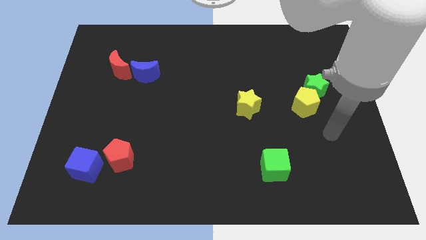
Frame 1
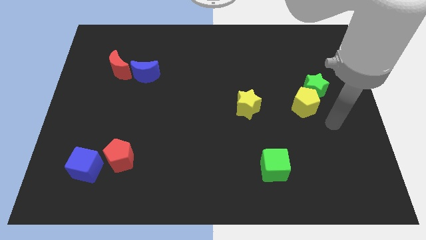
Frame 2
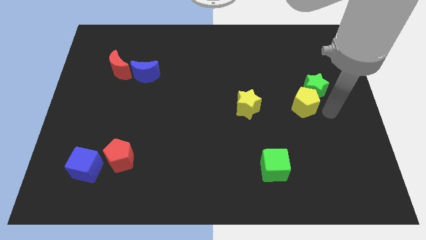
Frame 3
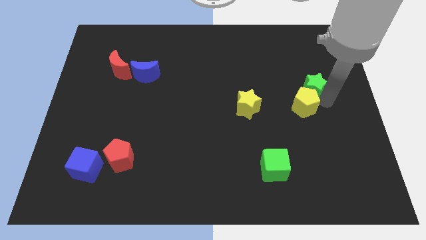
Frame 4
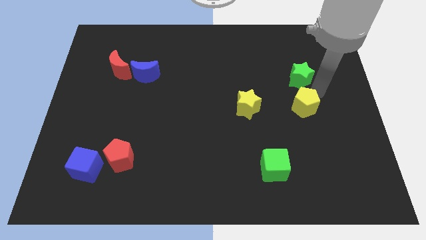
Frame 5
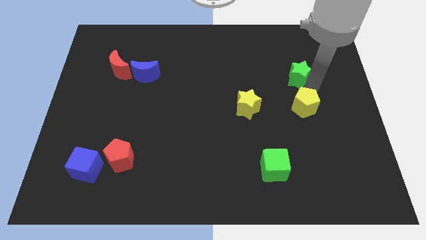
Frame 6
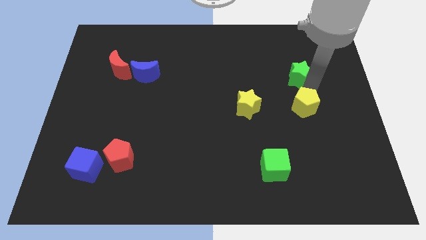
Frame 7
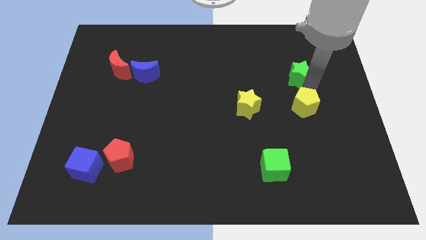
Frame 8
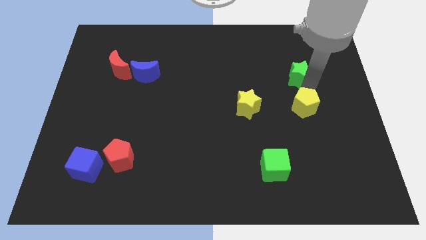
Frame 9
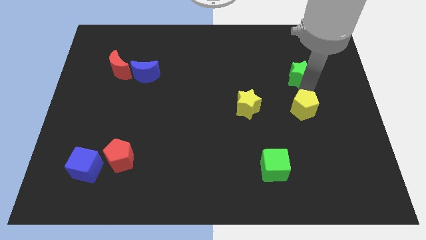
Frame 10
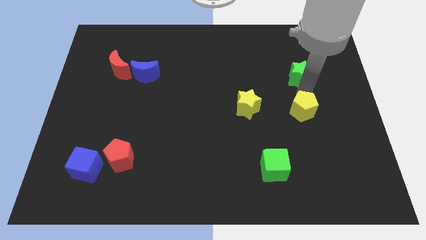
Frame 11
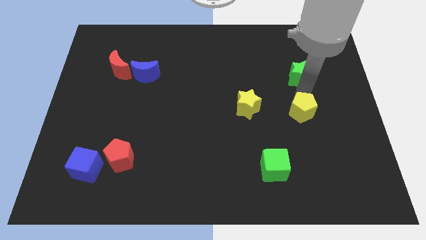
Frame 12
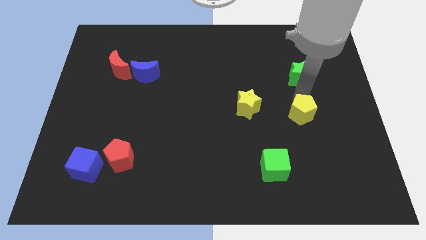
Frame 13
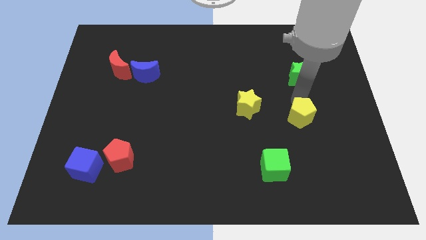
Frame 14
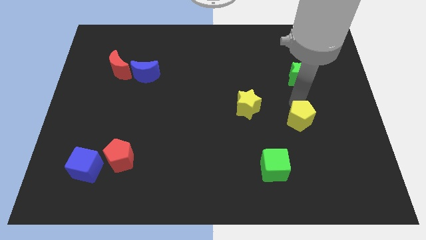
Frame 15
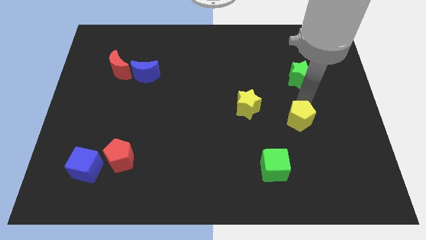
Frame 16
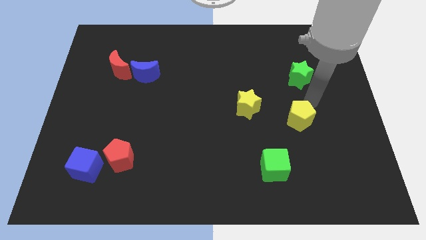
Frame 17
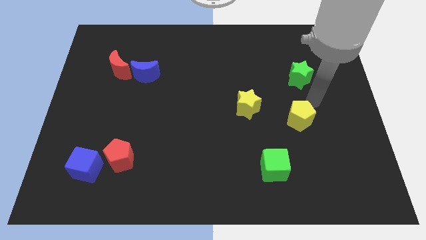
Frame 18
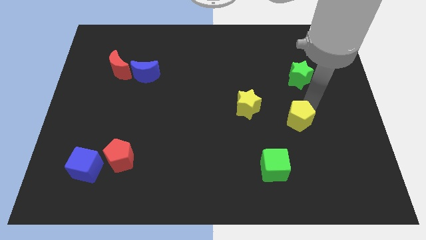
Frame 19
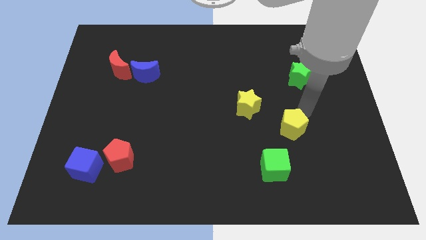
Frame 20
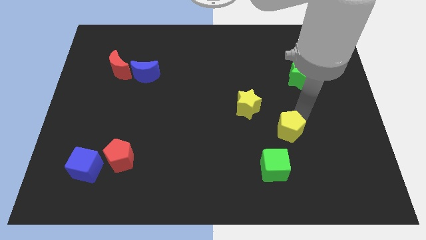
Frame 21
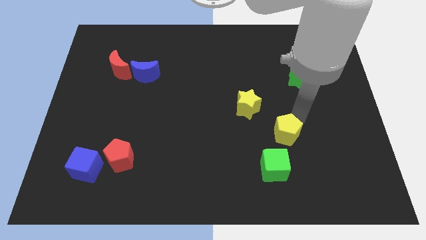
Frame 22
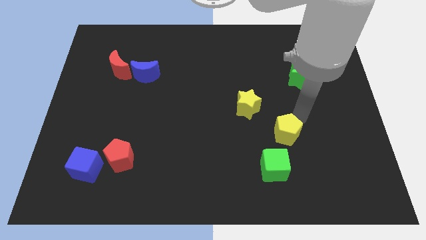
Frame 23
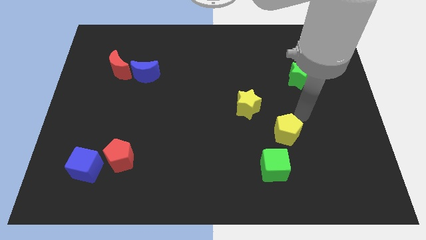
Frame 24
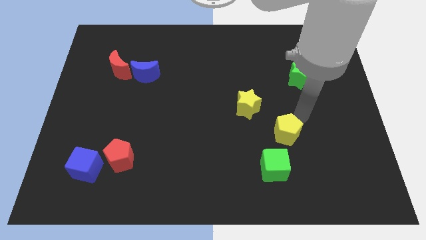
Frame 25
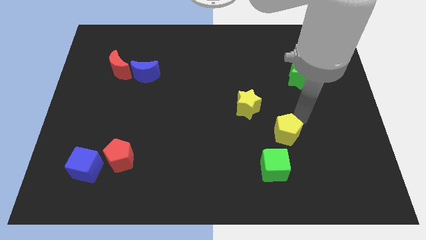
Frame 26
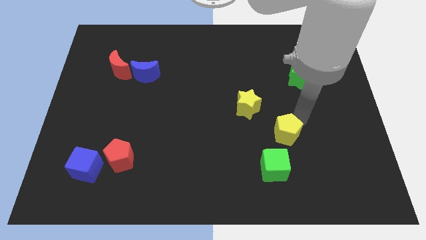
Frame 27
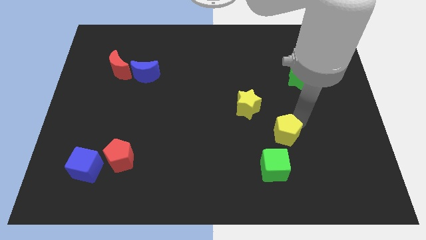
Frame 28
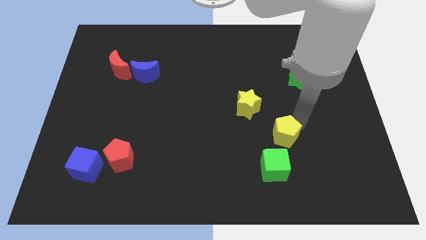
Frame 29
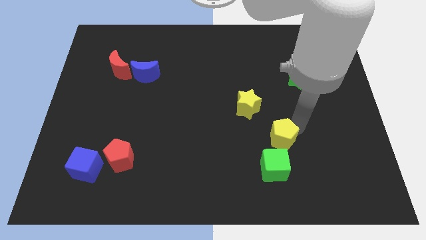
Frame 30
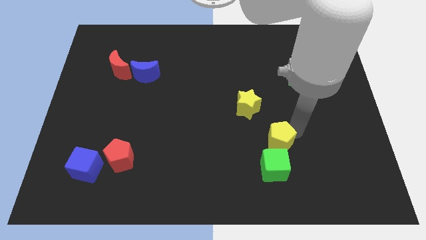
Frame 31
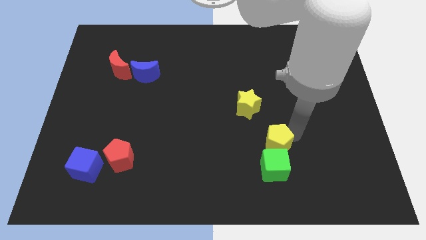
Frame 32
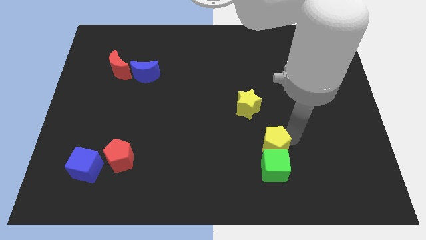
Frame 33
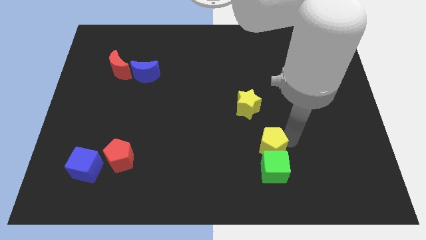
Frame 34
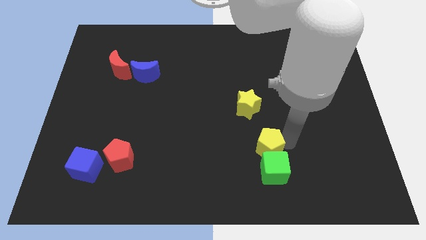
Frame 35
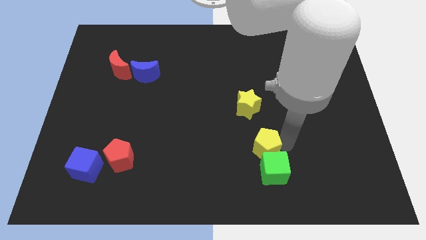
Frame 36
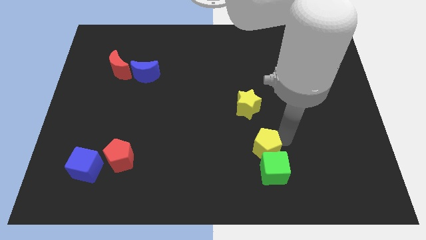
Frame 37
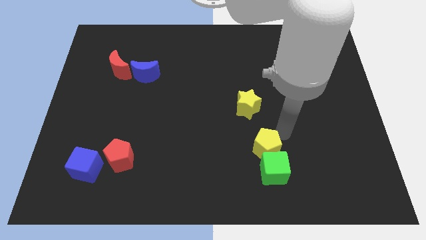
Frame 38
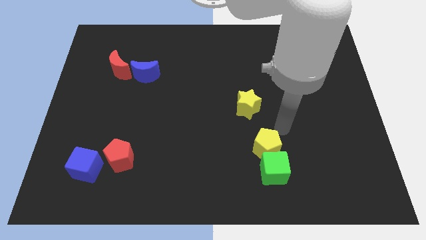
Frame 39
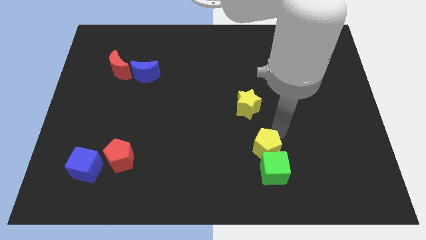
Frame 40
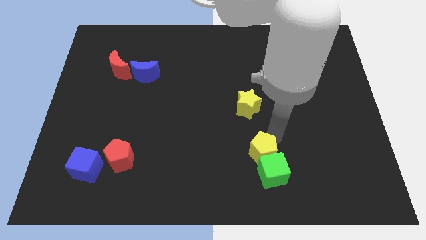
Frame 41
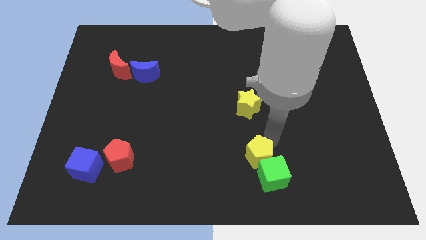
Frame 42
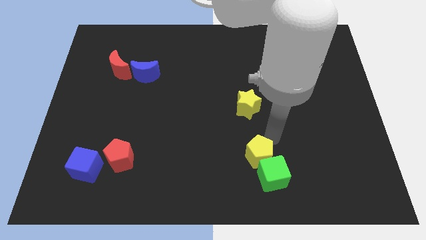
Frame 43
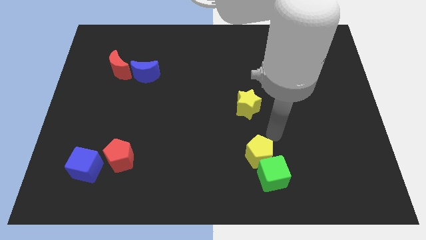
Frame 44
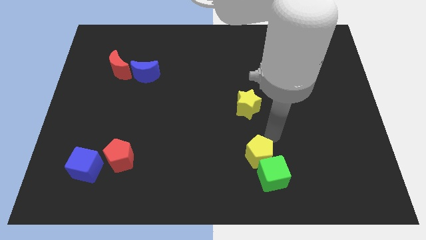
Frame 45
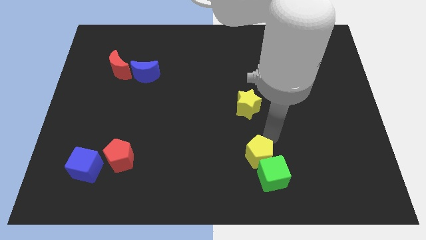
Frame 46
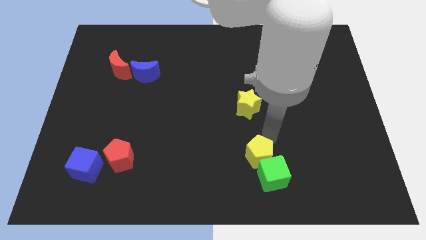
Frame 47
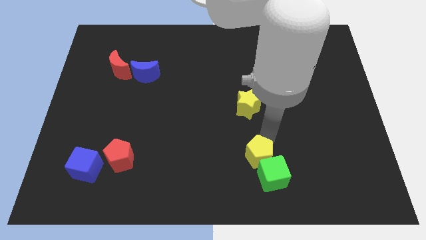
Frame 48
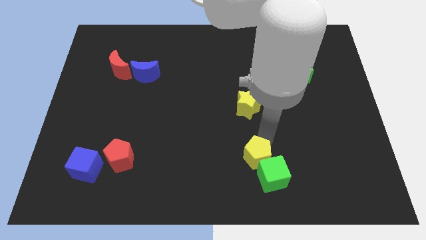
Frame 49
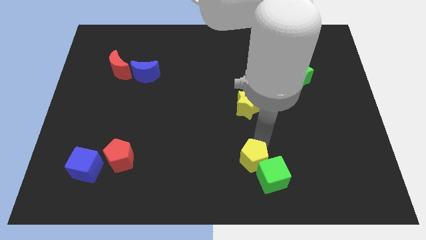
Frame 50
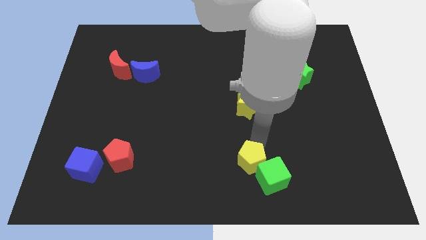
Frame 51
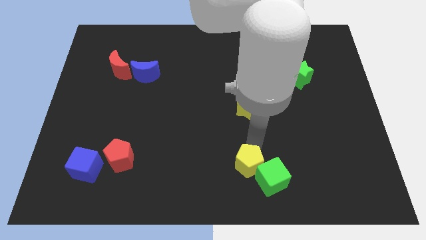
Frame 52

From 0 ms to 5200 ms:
slide the yellow pentagon to the bottom

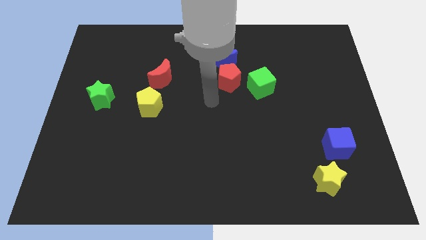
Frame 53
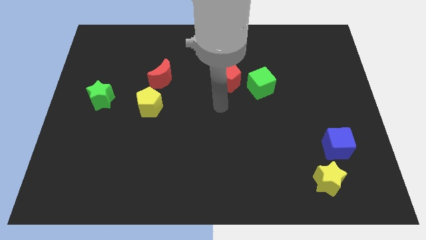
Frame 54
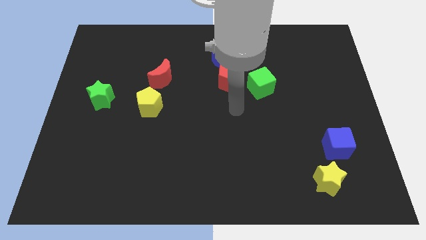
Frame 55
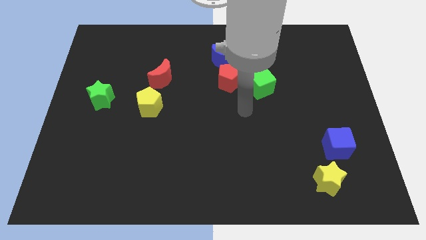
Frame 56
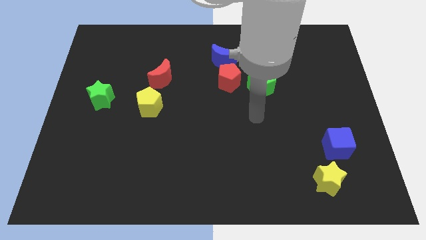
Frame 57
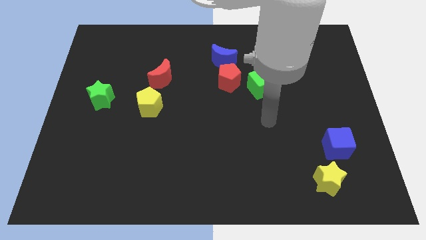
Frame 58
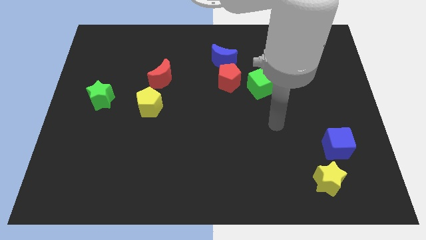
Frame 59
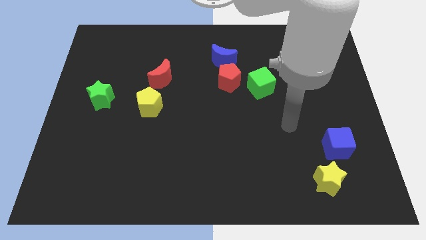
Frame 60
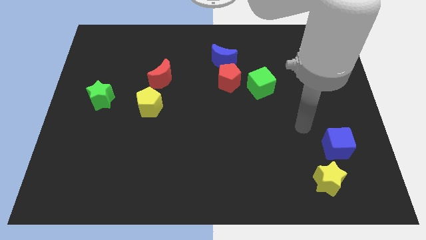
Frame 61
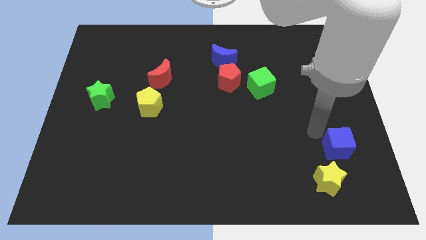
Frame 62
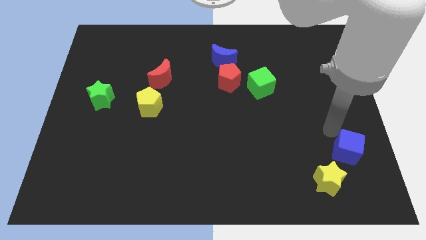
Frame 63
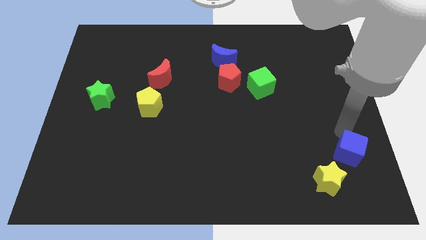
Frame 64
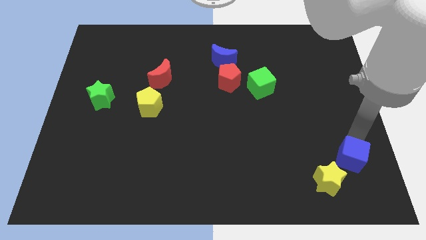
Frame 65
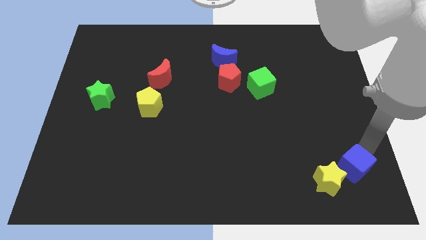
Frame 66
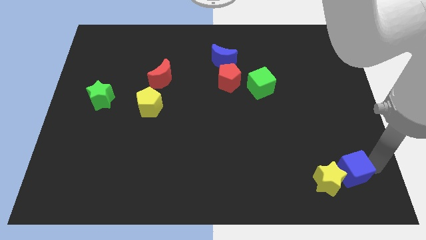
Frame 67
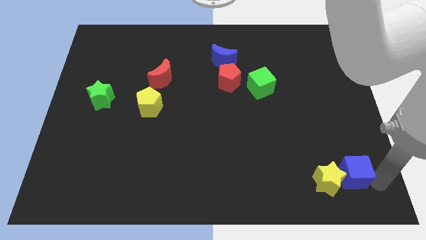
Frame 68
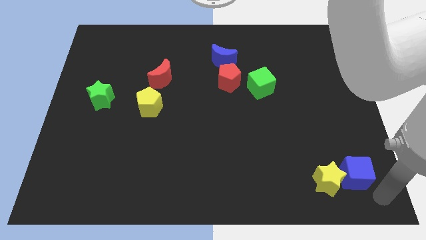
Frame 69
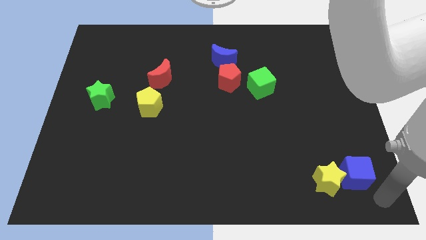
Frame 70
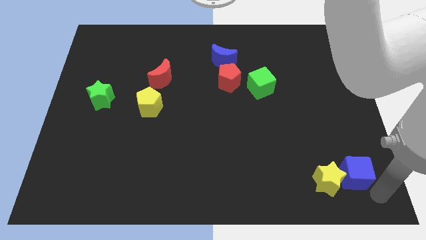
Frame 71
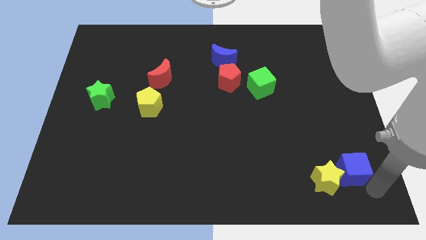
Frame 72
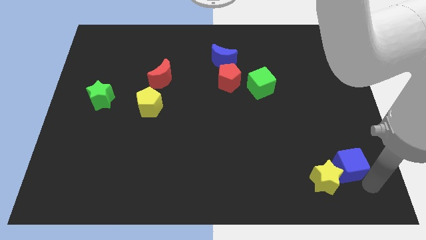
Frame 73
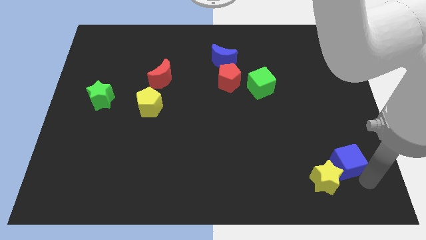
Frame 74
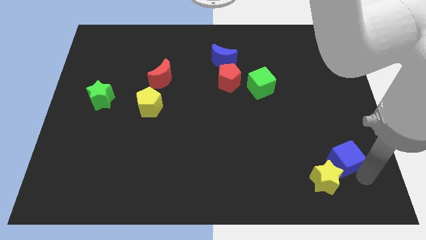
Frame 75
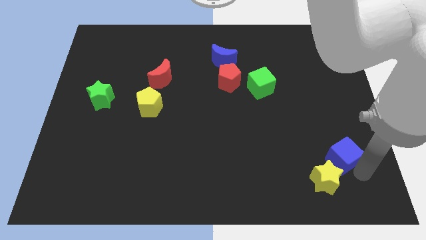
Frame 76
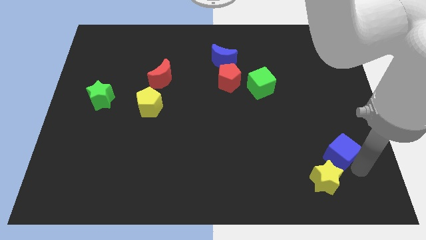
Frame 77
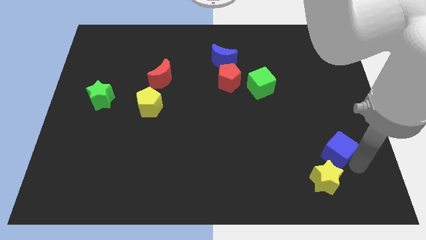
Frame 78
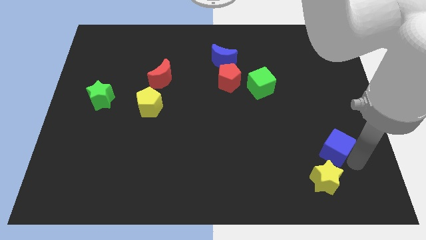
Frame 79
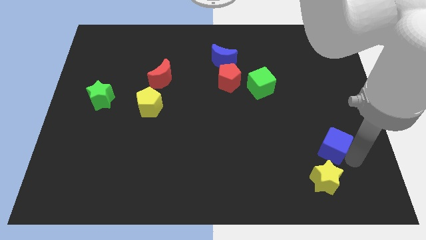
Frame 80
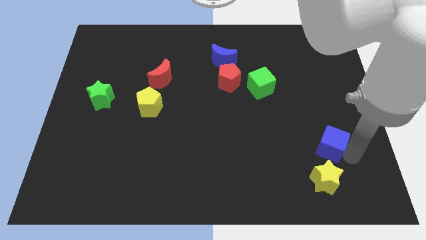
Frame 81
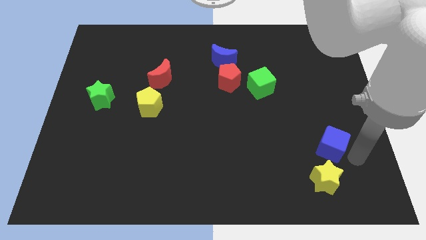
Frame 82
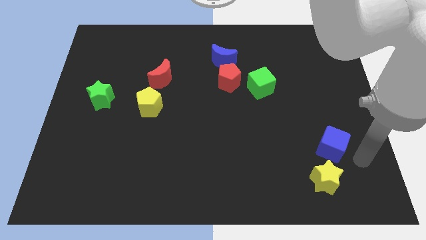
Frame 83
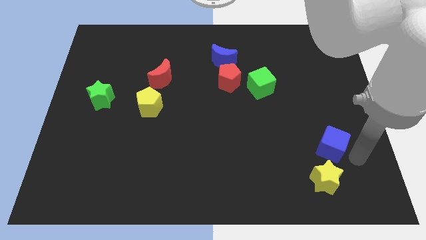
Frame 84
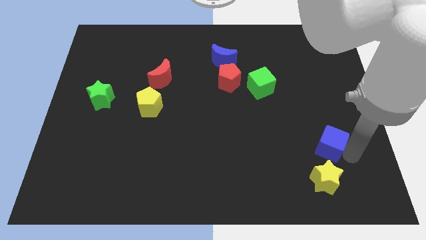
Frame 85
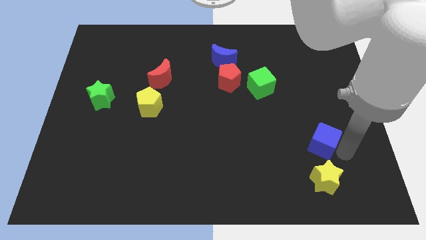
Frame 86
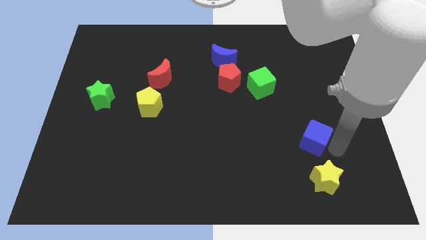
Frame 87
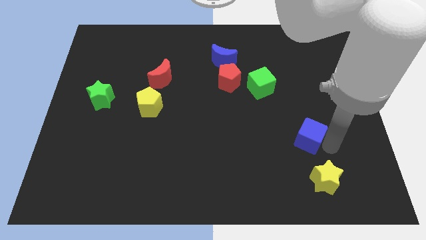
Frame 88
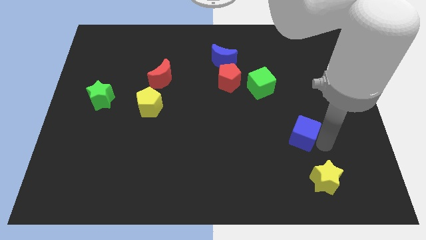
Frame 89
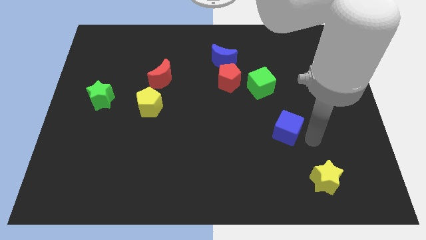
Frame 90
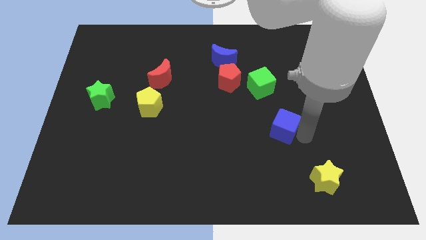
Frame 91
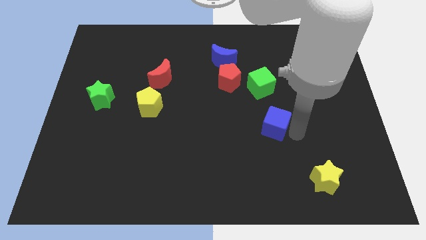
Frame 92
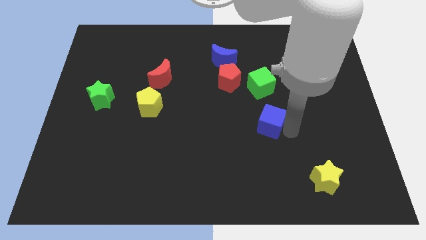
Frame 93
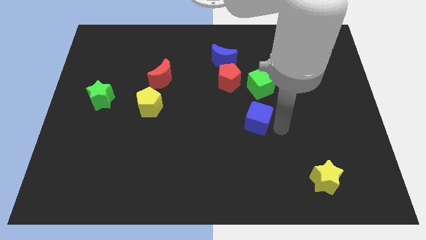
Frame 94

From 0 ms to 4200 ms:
put the blue cube to the middle
